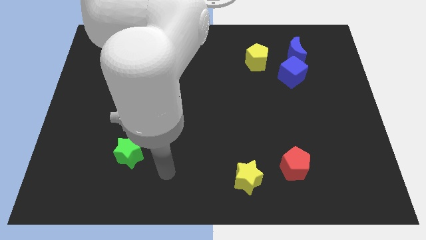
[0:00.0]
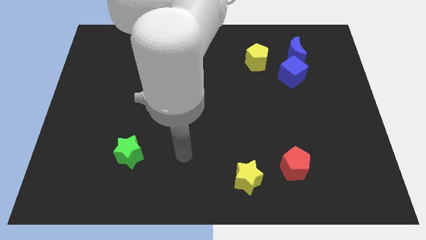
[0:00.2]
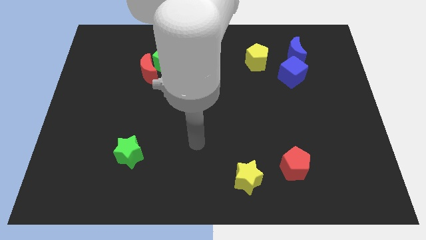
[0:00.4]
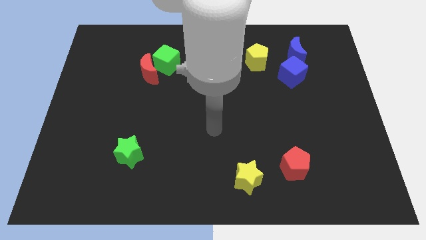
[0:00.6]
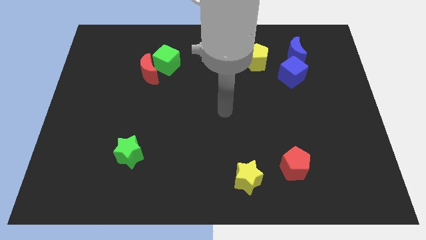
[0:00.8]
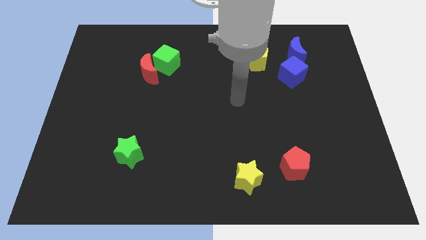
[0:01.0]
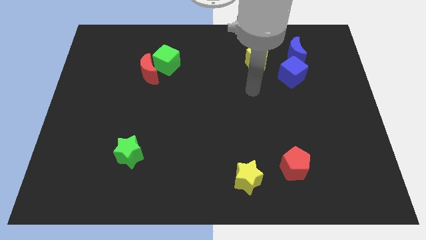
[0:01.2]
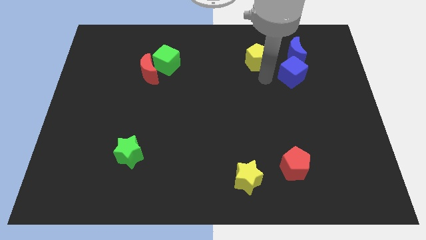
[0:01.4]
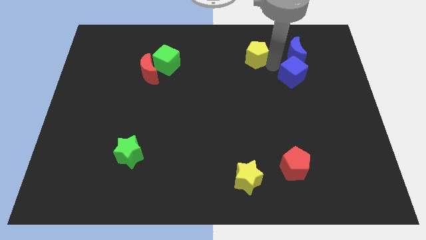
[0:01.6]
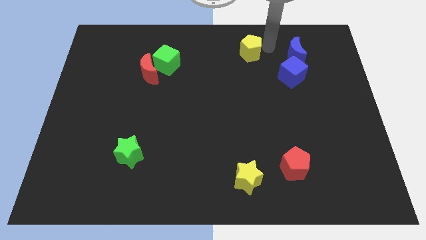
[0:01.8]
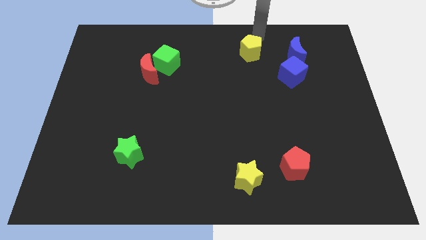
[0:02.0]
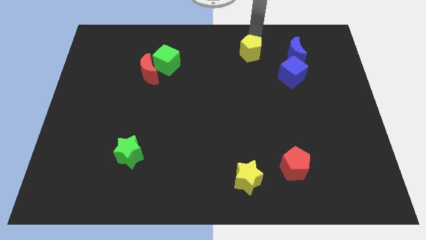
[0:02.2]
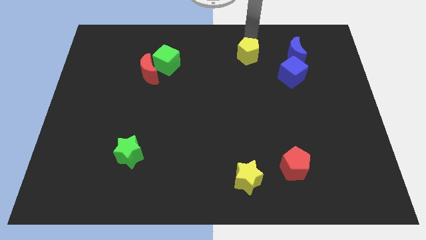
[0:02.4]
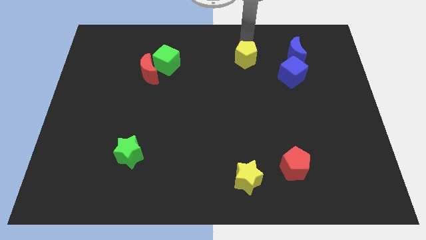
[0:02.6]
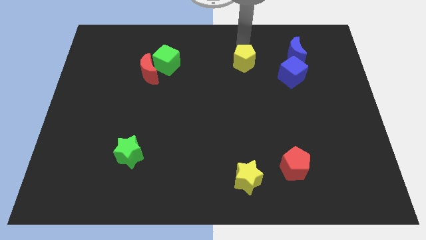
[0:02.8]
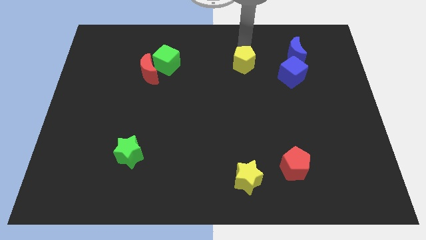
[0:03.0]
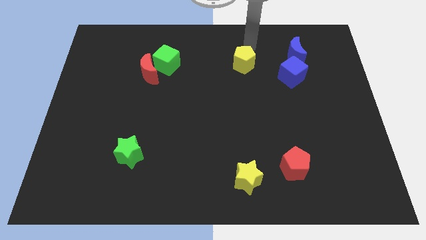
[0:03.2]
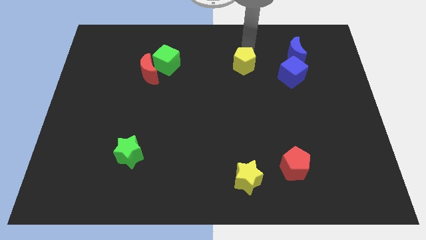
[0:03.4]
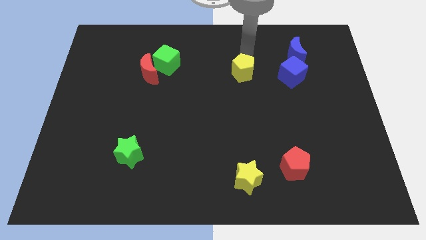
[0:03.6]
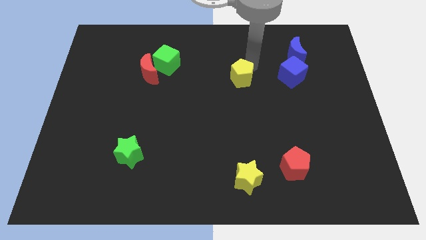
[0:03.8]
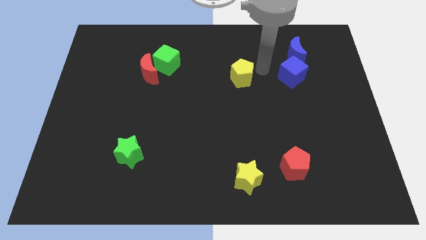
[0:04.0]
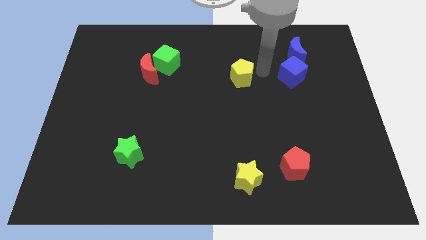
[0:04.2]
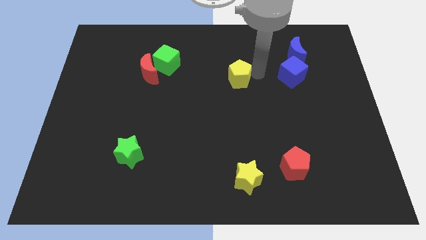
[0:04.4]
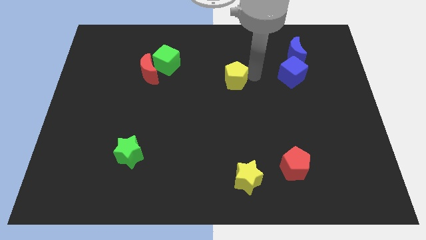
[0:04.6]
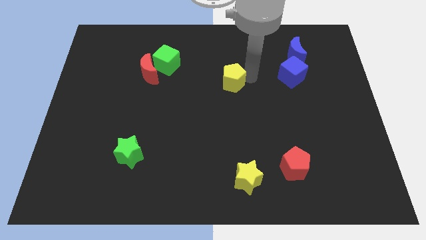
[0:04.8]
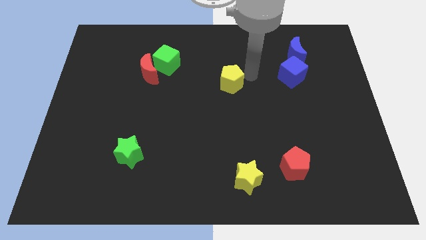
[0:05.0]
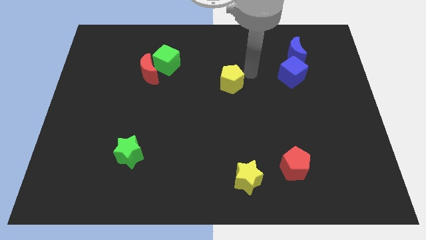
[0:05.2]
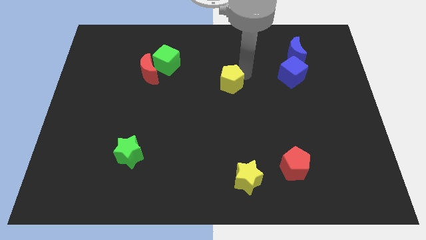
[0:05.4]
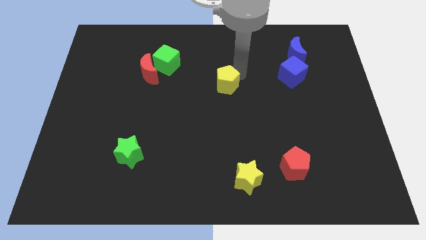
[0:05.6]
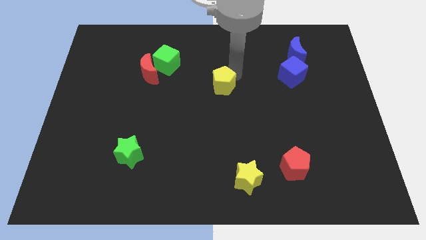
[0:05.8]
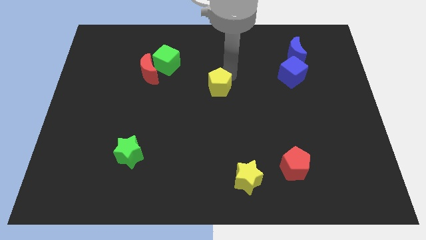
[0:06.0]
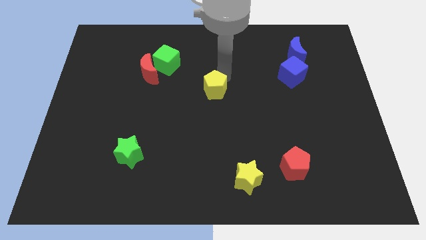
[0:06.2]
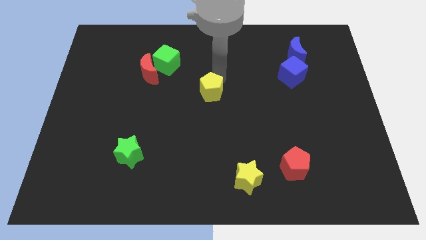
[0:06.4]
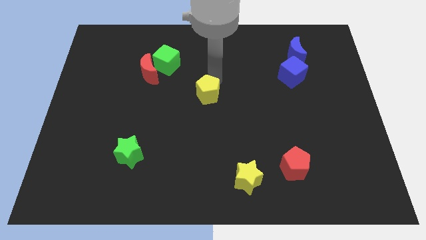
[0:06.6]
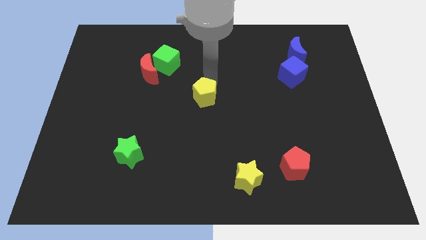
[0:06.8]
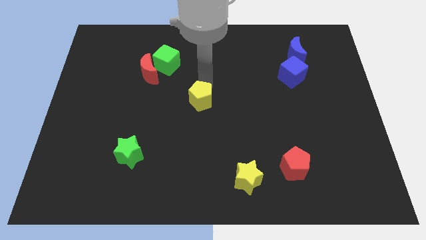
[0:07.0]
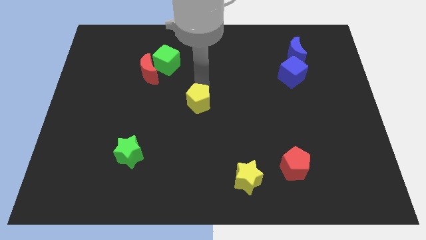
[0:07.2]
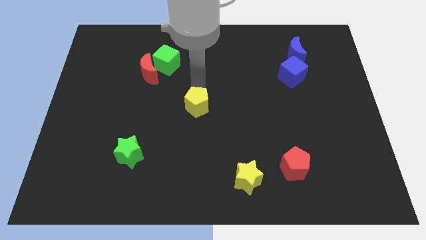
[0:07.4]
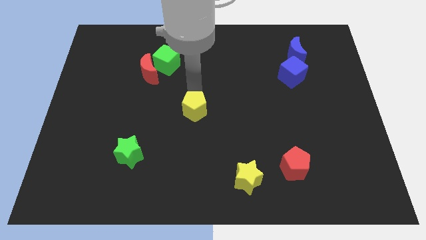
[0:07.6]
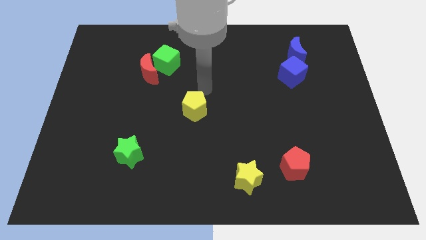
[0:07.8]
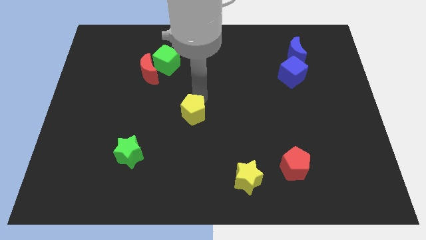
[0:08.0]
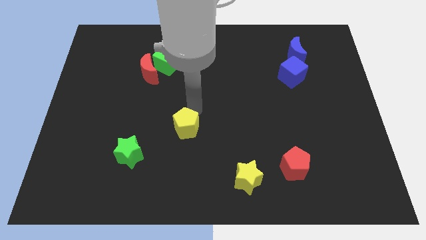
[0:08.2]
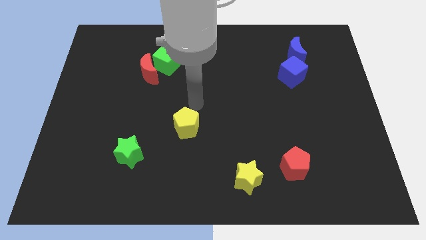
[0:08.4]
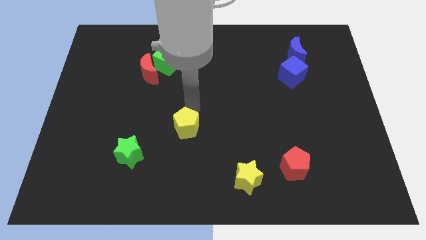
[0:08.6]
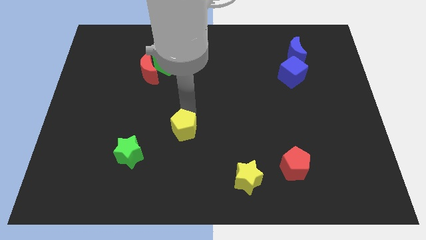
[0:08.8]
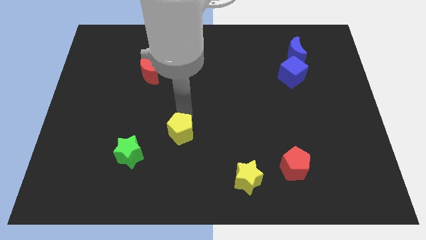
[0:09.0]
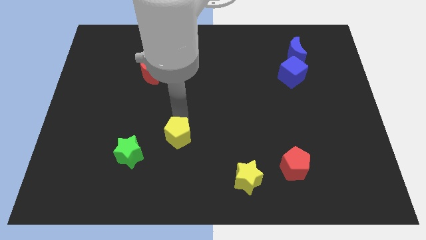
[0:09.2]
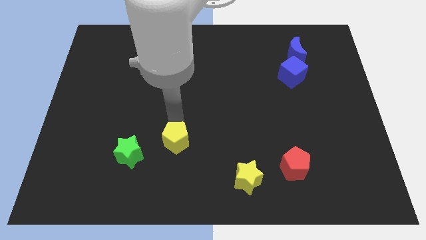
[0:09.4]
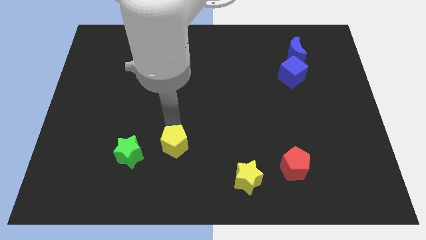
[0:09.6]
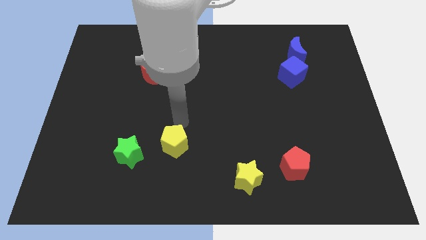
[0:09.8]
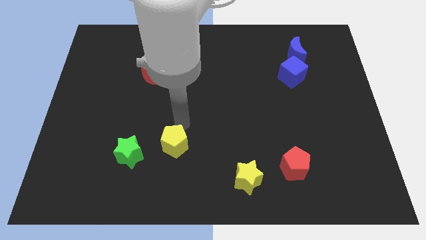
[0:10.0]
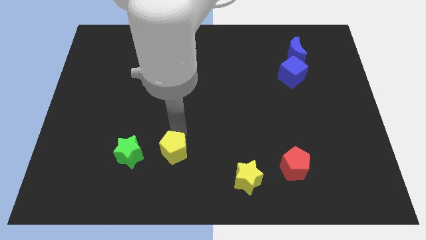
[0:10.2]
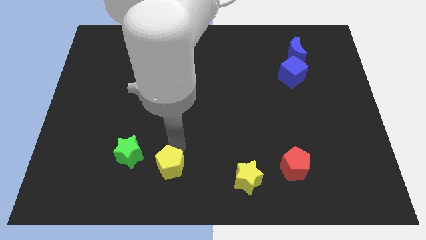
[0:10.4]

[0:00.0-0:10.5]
slide the yellow pentagon to the bottom right side of the green star

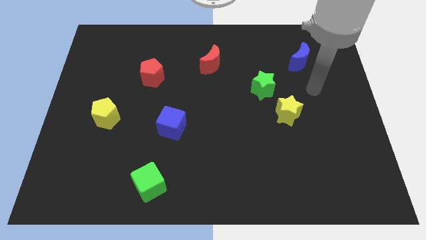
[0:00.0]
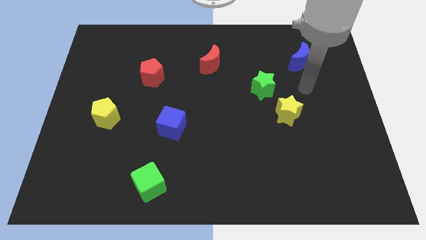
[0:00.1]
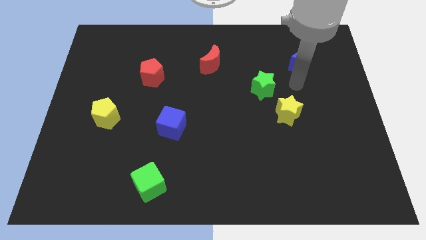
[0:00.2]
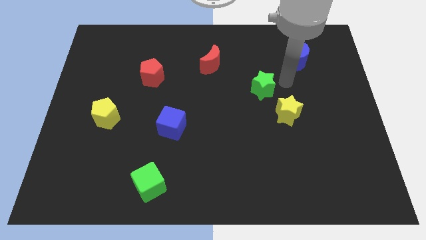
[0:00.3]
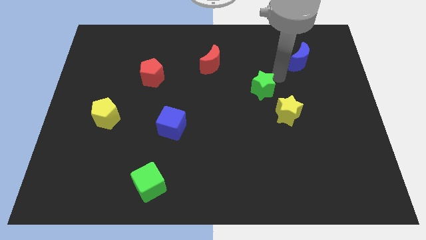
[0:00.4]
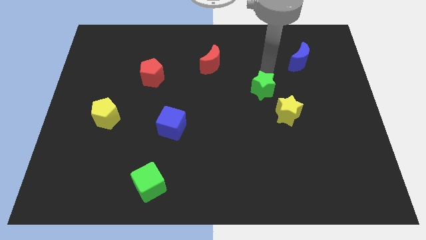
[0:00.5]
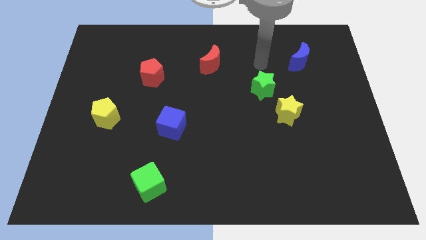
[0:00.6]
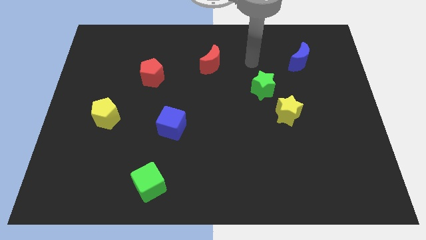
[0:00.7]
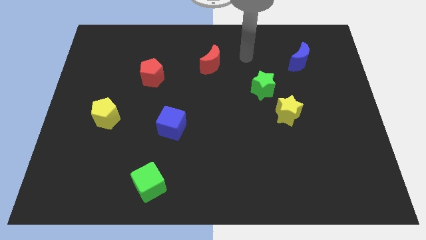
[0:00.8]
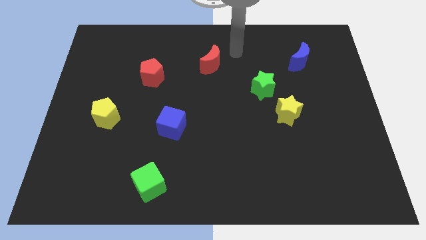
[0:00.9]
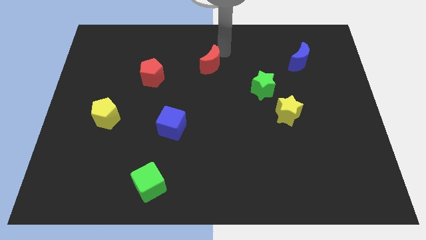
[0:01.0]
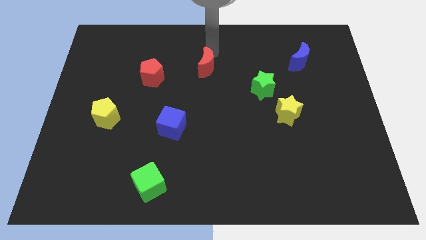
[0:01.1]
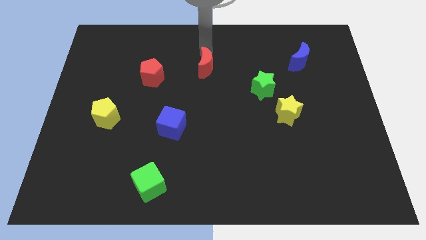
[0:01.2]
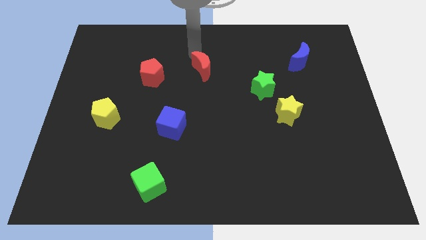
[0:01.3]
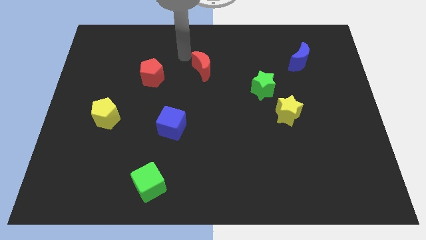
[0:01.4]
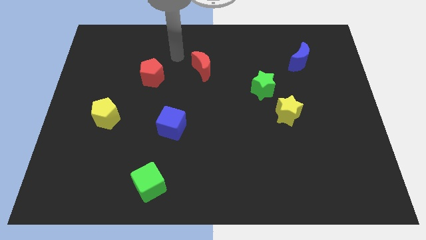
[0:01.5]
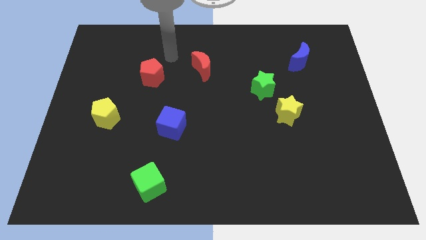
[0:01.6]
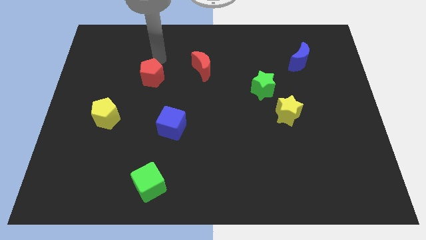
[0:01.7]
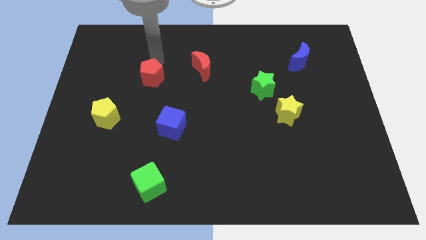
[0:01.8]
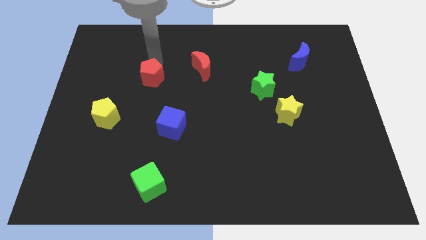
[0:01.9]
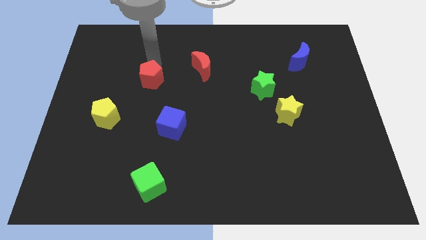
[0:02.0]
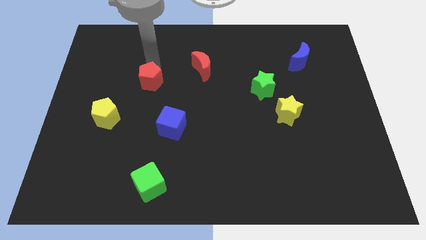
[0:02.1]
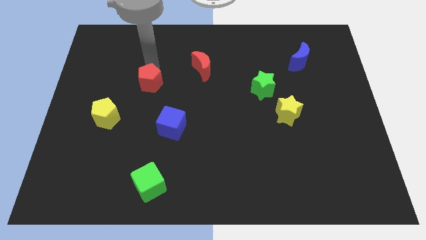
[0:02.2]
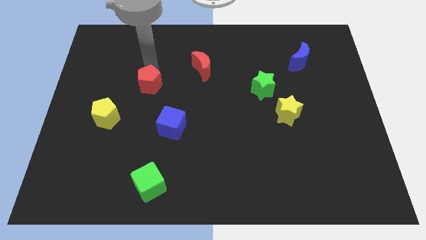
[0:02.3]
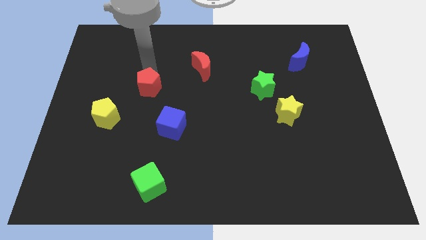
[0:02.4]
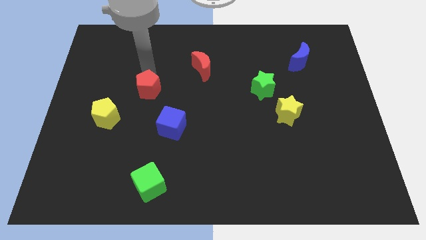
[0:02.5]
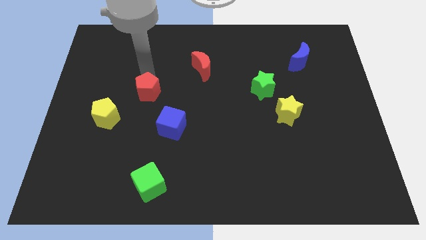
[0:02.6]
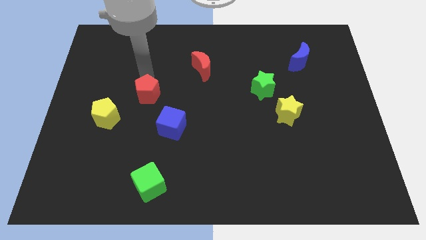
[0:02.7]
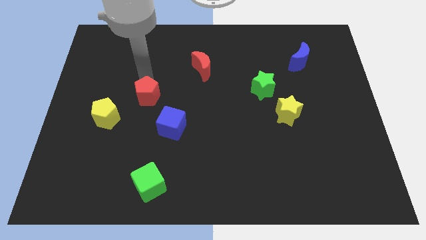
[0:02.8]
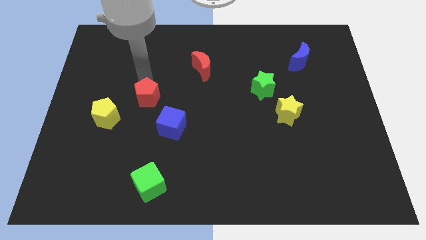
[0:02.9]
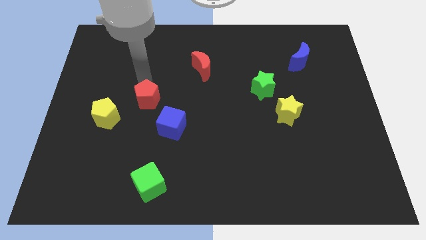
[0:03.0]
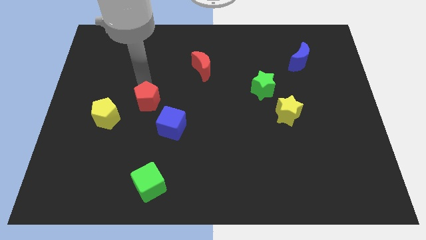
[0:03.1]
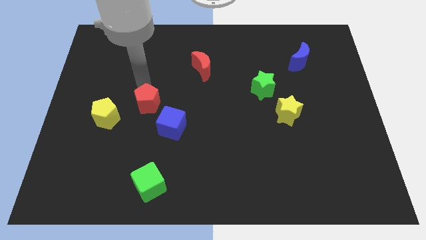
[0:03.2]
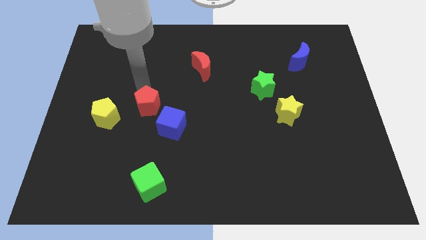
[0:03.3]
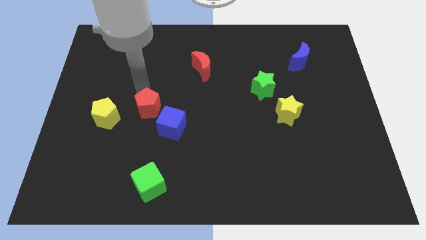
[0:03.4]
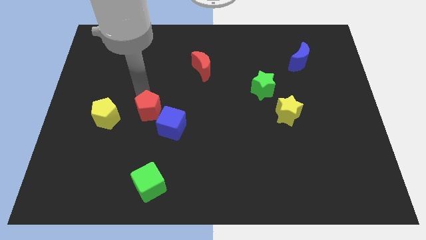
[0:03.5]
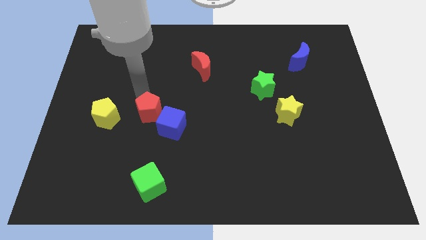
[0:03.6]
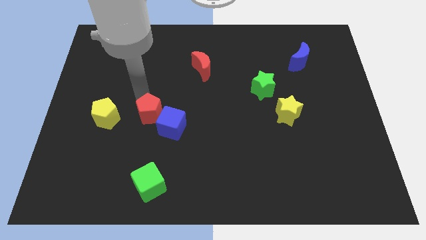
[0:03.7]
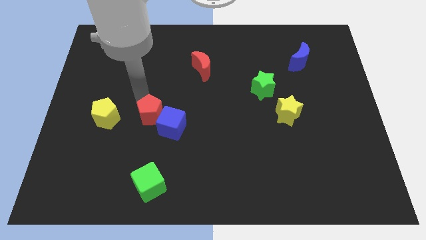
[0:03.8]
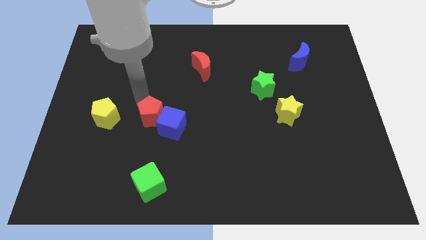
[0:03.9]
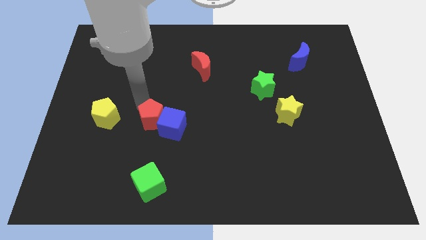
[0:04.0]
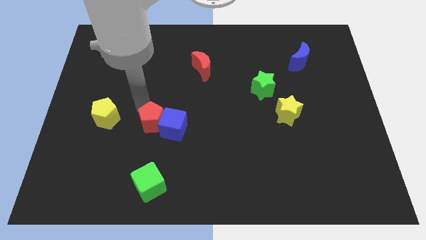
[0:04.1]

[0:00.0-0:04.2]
move the red pentagon to the bottom left of the blue cube
